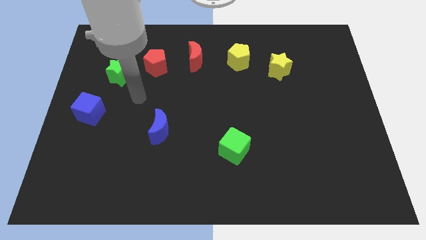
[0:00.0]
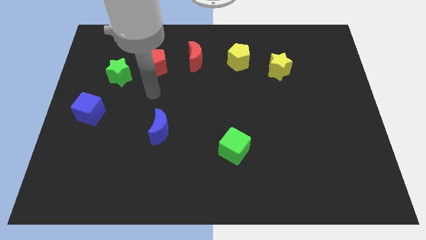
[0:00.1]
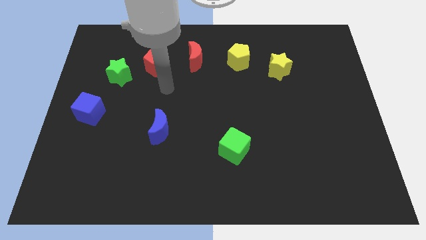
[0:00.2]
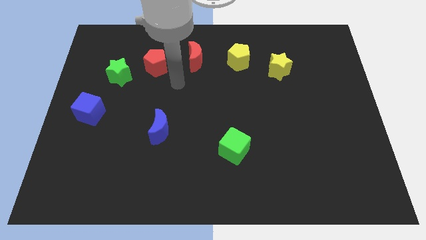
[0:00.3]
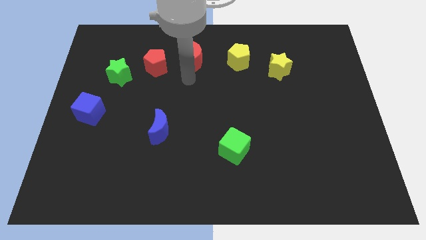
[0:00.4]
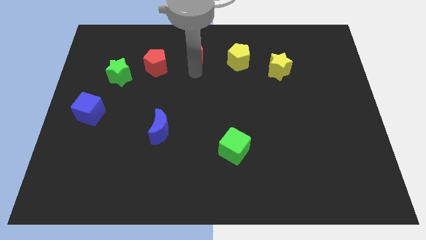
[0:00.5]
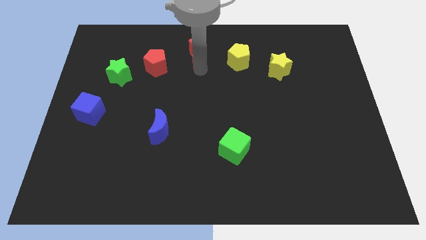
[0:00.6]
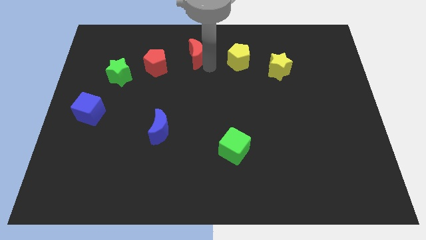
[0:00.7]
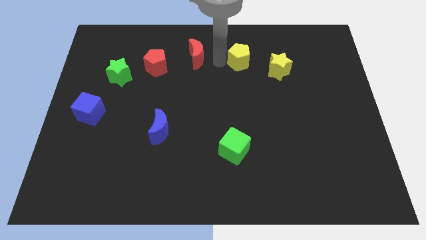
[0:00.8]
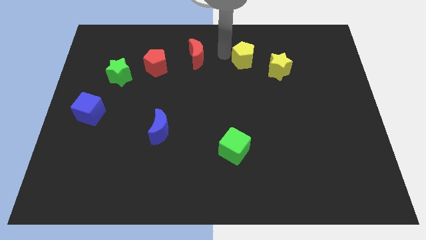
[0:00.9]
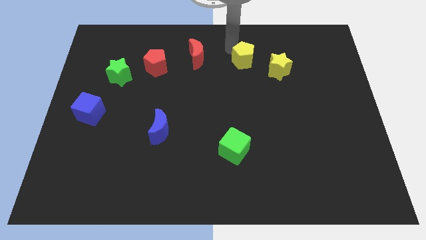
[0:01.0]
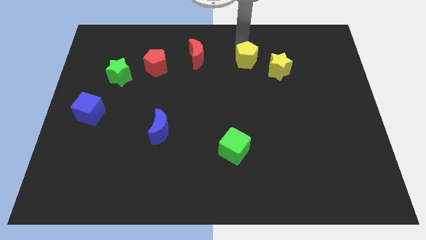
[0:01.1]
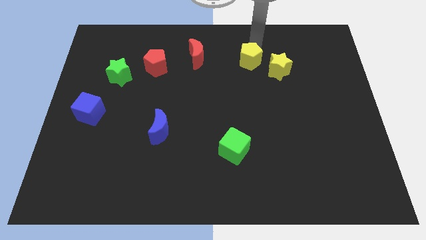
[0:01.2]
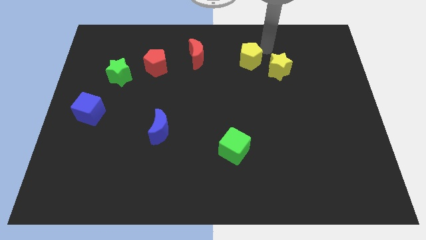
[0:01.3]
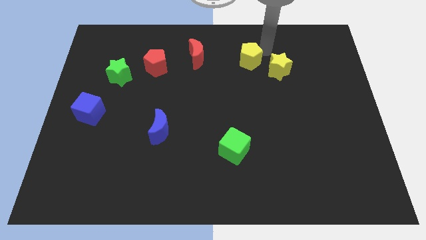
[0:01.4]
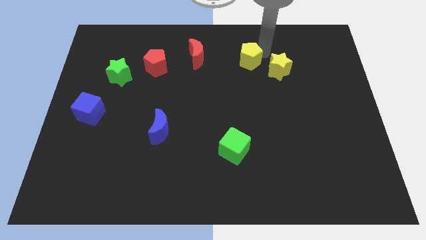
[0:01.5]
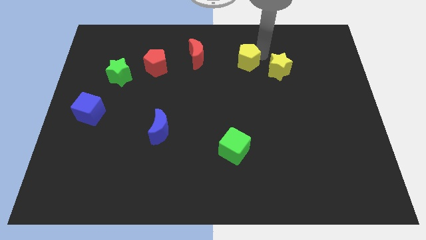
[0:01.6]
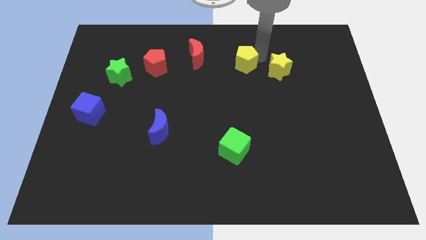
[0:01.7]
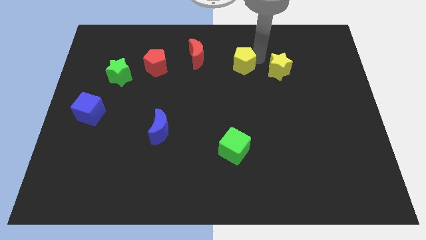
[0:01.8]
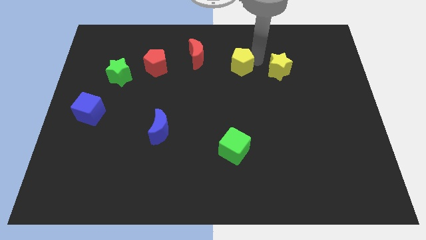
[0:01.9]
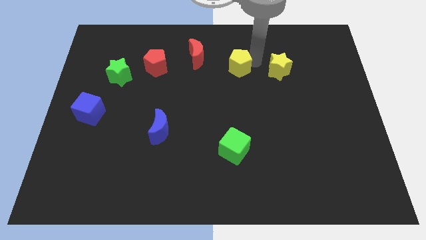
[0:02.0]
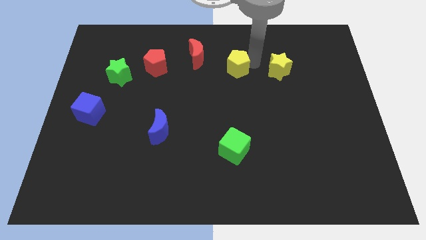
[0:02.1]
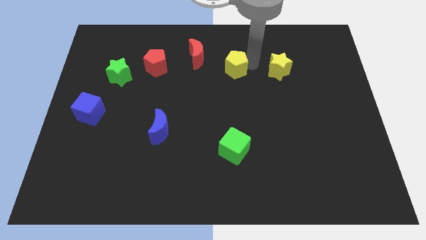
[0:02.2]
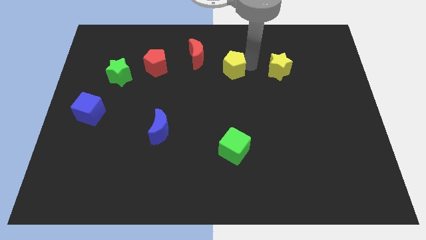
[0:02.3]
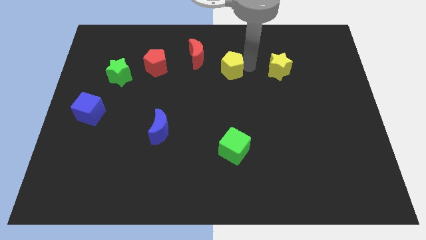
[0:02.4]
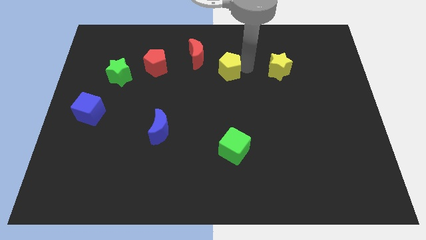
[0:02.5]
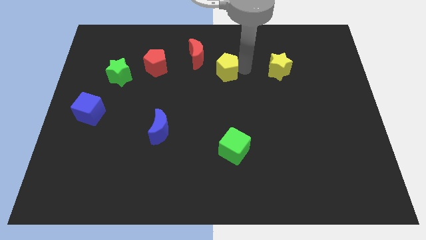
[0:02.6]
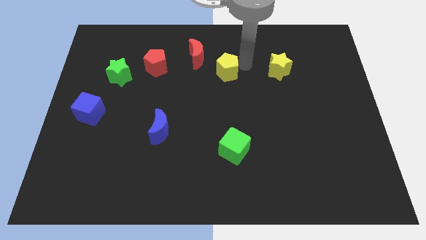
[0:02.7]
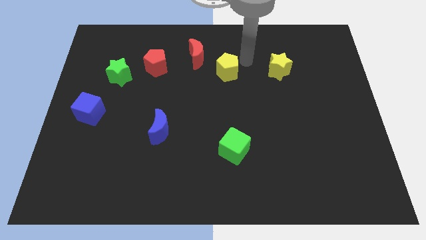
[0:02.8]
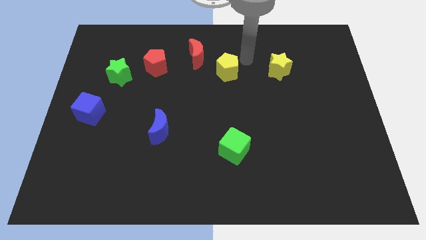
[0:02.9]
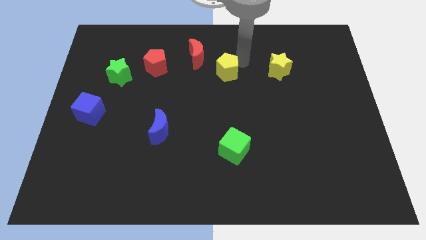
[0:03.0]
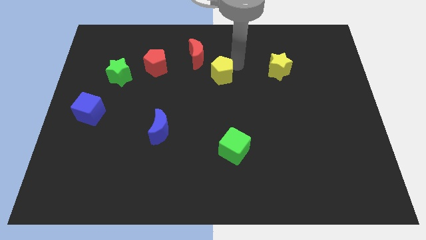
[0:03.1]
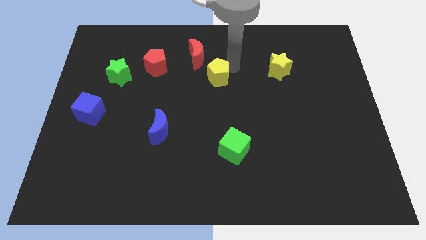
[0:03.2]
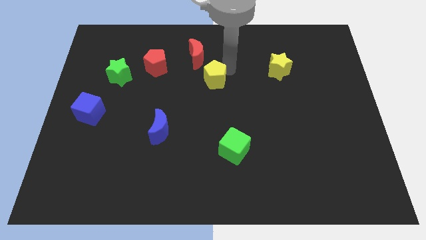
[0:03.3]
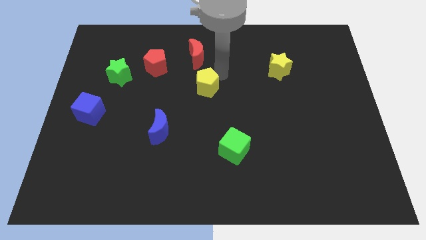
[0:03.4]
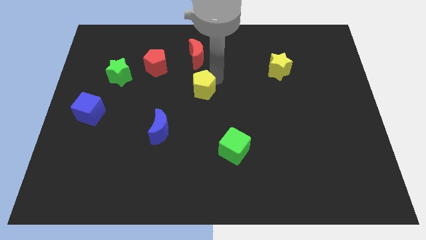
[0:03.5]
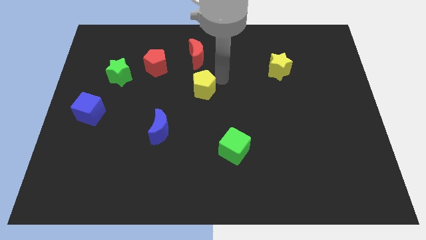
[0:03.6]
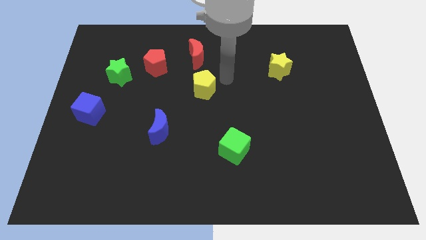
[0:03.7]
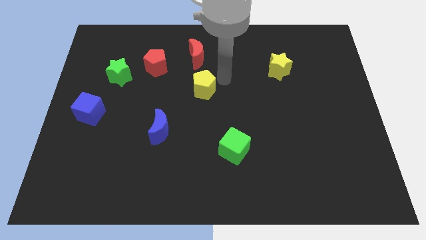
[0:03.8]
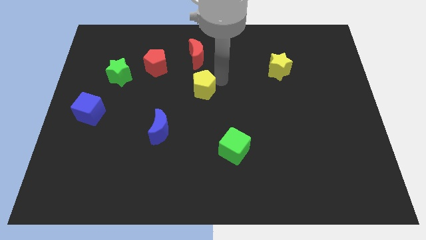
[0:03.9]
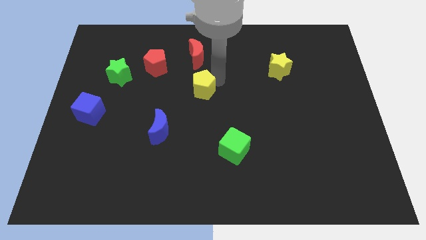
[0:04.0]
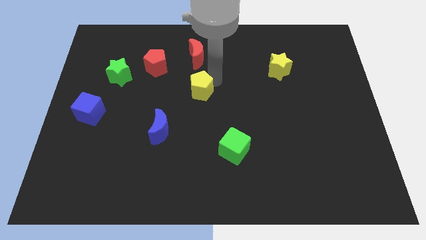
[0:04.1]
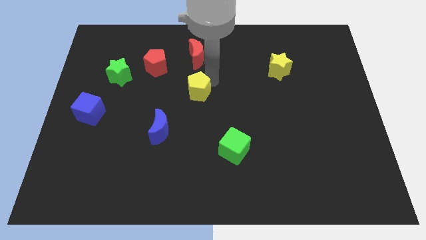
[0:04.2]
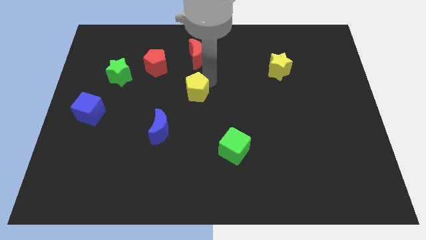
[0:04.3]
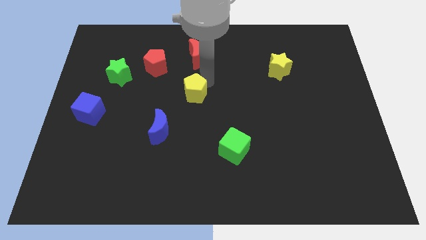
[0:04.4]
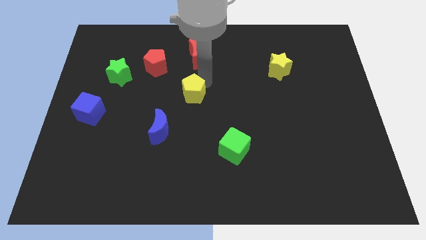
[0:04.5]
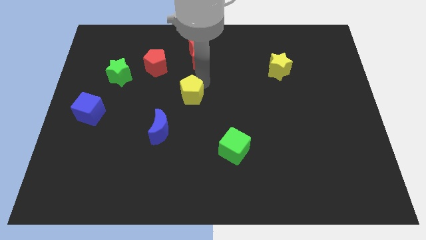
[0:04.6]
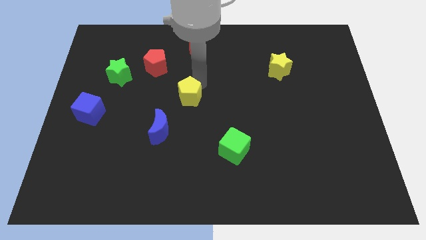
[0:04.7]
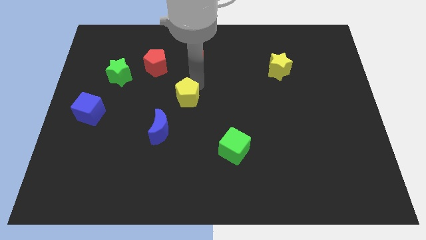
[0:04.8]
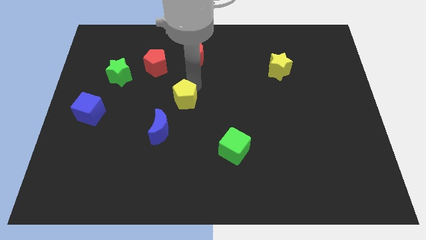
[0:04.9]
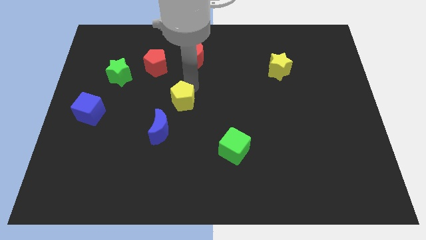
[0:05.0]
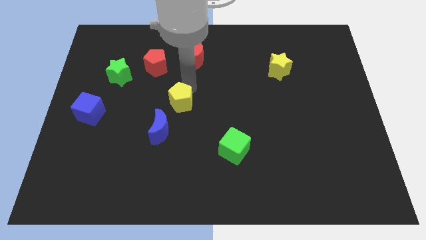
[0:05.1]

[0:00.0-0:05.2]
push the yellow pentagon downwards and then to the left

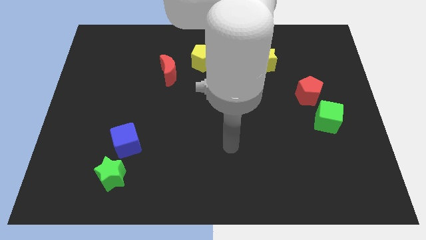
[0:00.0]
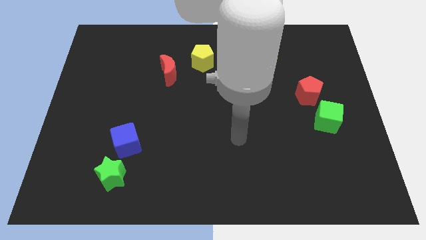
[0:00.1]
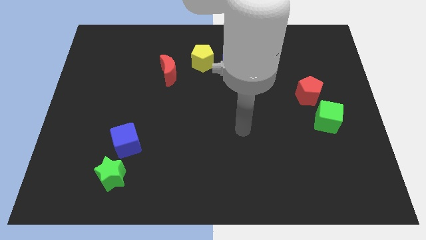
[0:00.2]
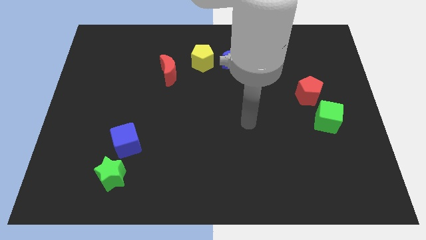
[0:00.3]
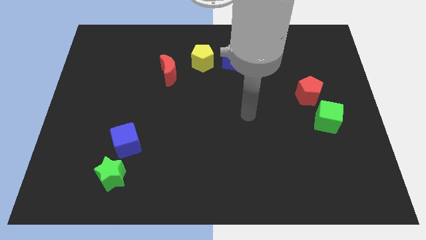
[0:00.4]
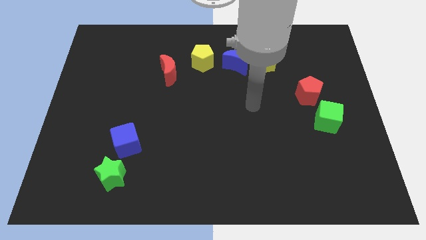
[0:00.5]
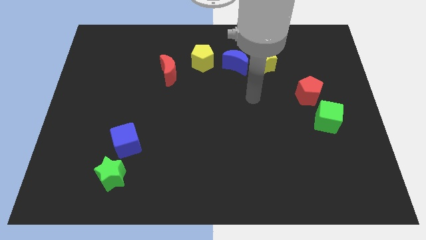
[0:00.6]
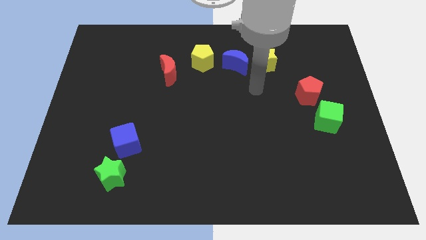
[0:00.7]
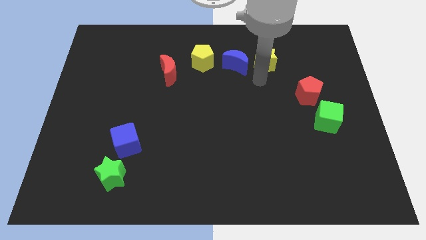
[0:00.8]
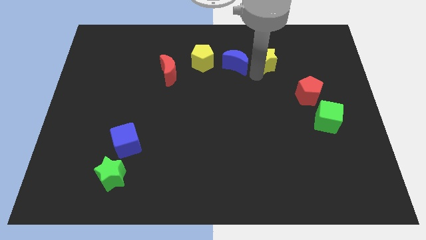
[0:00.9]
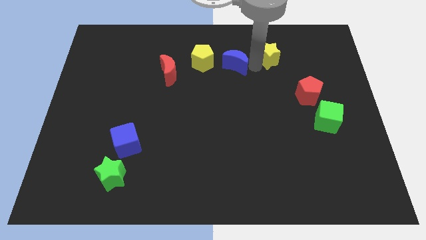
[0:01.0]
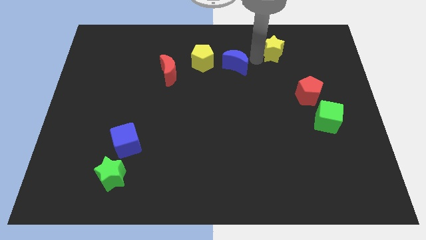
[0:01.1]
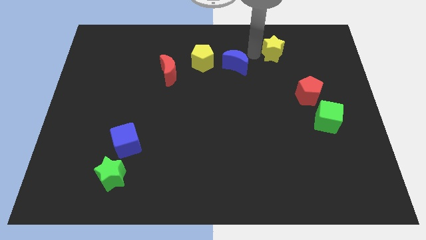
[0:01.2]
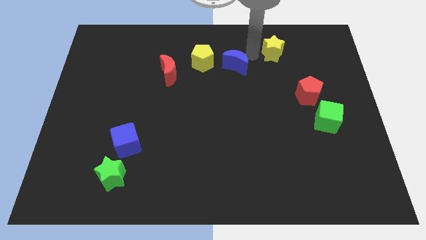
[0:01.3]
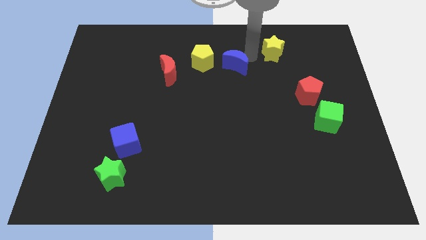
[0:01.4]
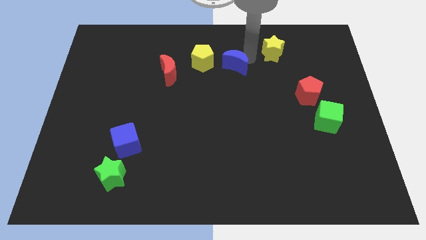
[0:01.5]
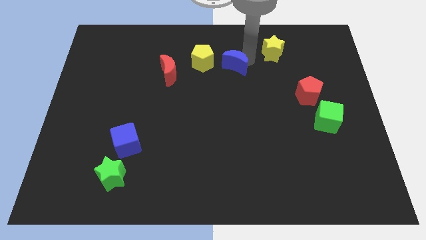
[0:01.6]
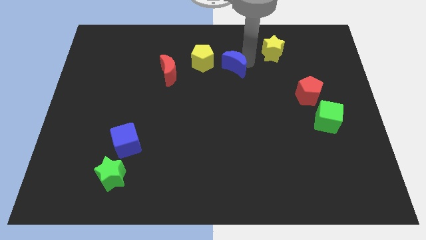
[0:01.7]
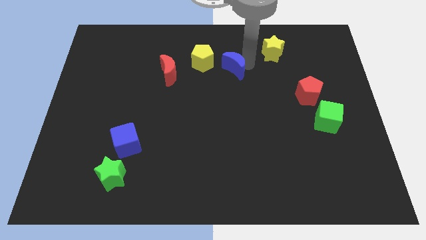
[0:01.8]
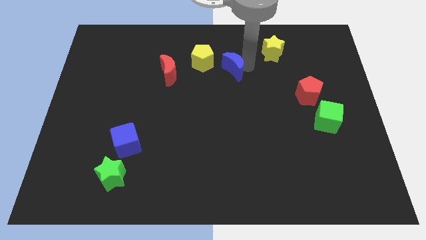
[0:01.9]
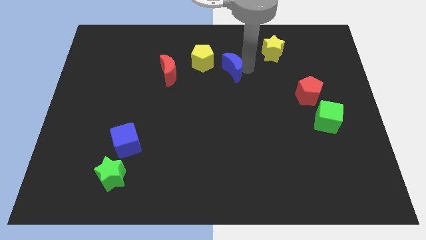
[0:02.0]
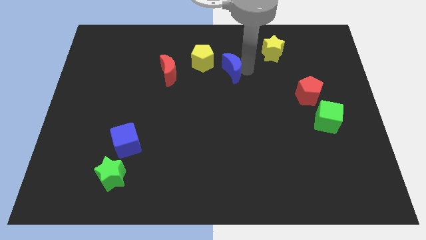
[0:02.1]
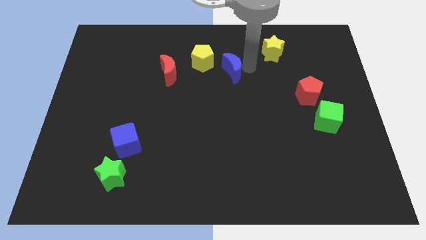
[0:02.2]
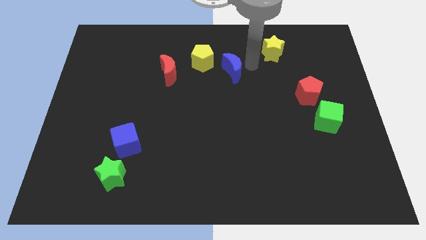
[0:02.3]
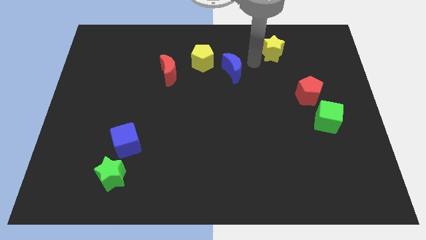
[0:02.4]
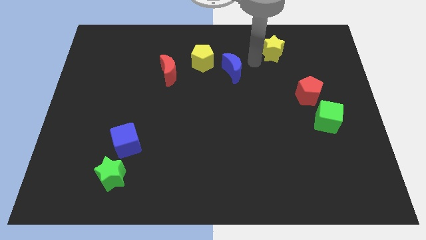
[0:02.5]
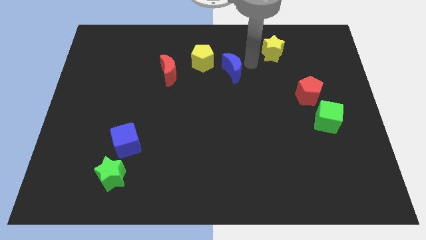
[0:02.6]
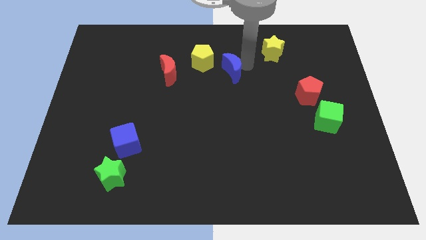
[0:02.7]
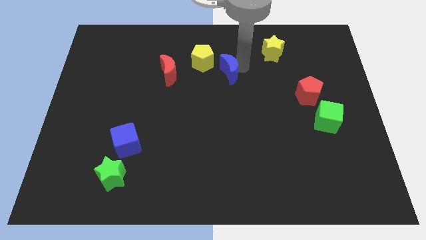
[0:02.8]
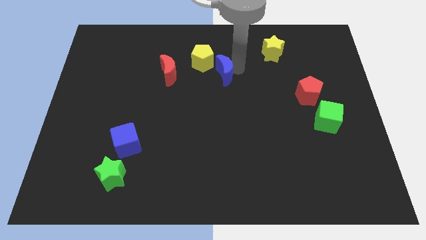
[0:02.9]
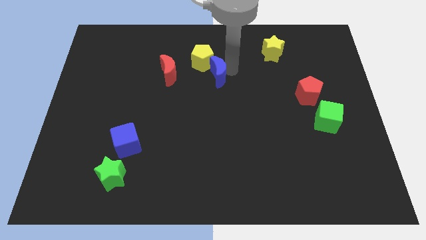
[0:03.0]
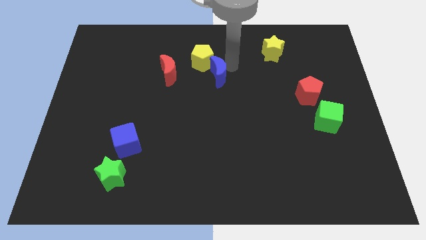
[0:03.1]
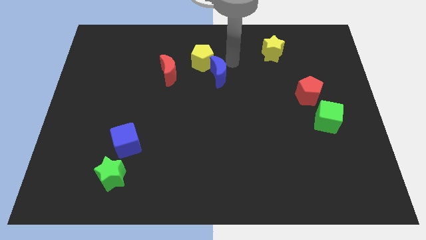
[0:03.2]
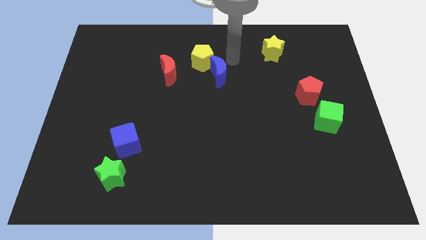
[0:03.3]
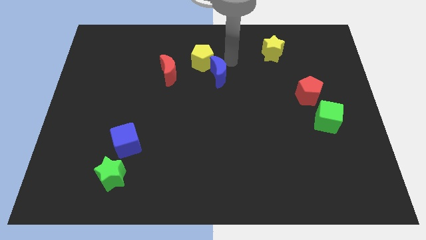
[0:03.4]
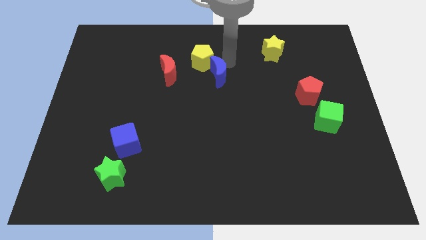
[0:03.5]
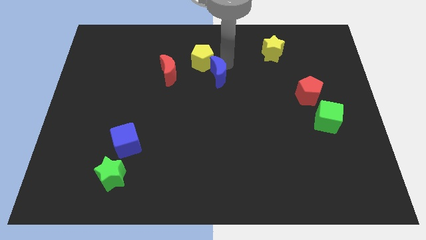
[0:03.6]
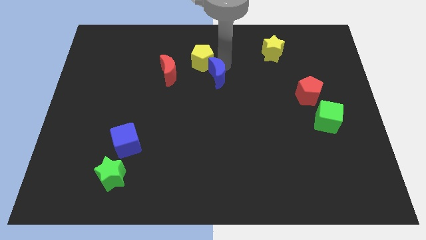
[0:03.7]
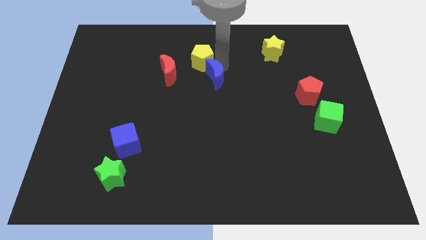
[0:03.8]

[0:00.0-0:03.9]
push the blue moon down and left diagonally a little bit
